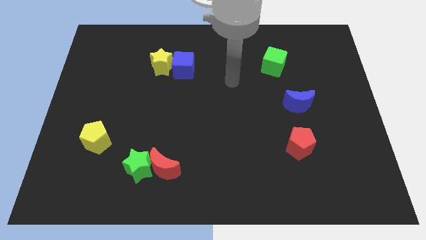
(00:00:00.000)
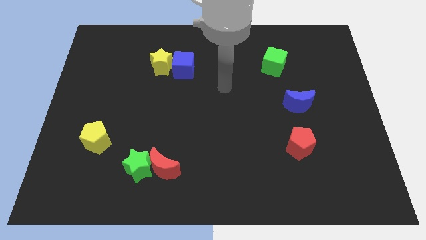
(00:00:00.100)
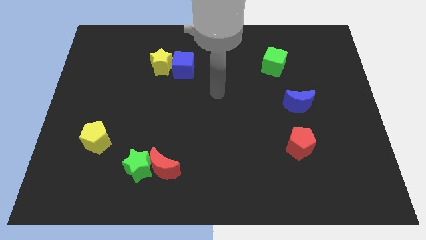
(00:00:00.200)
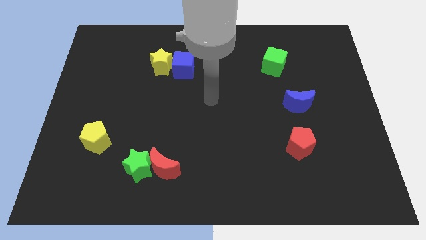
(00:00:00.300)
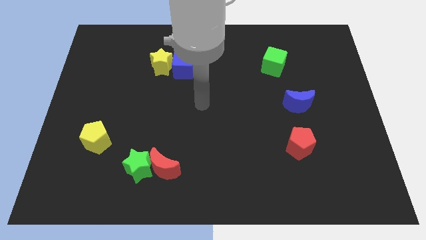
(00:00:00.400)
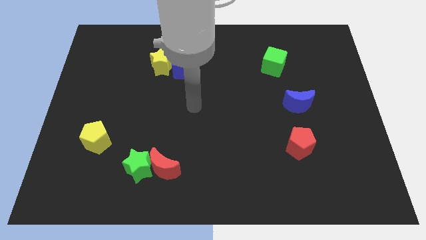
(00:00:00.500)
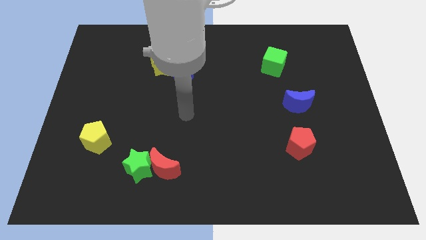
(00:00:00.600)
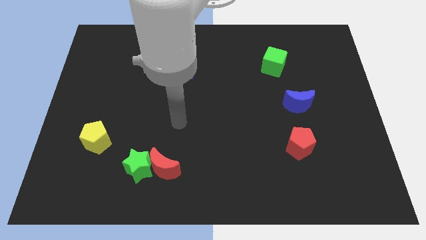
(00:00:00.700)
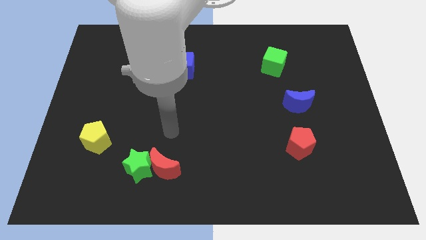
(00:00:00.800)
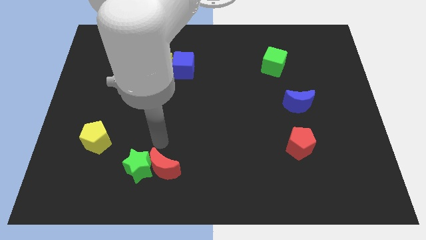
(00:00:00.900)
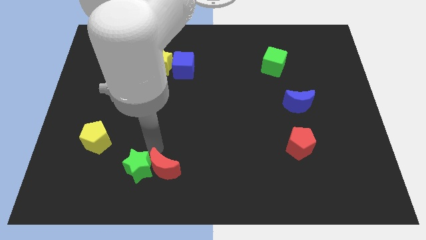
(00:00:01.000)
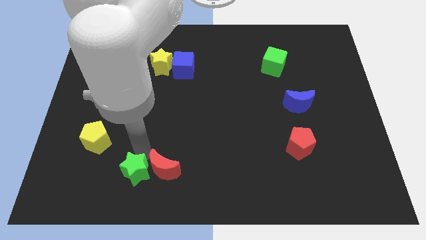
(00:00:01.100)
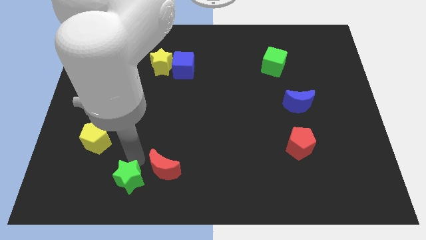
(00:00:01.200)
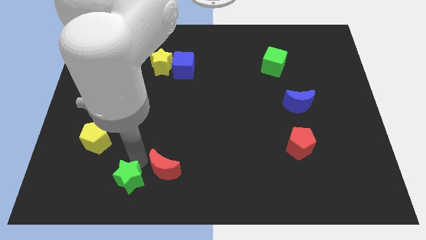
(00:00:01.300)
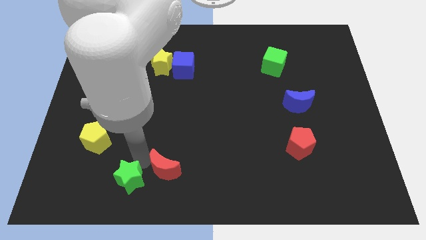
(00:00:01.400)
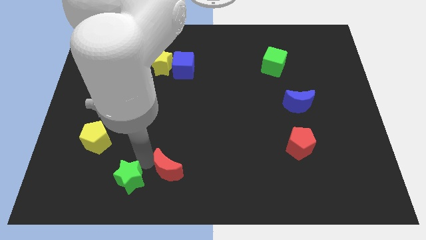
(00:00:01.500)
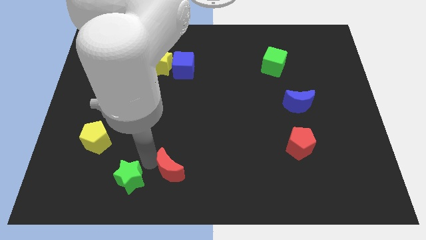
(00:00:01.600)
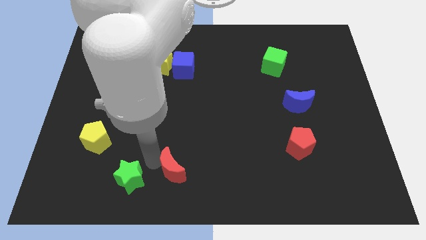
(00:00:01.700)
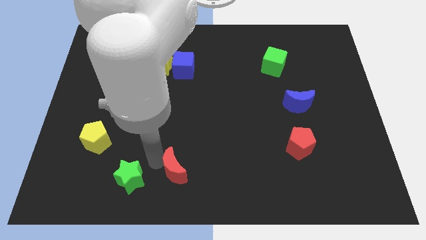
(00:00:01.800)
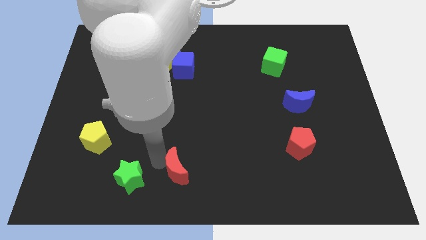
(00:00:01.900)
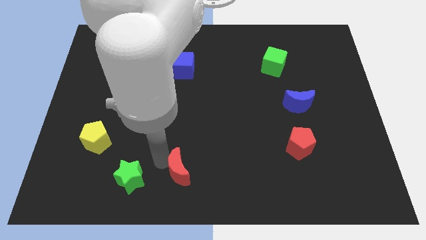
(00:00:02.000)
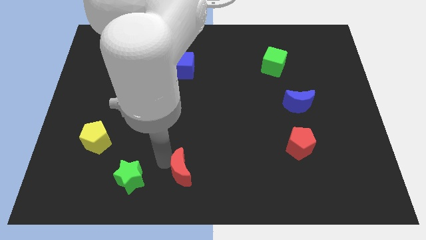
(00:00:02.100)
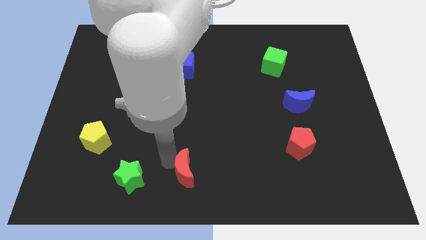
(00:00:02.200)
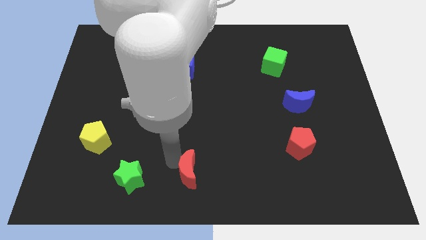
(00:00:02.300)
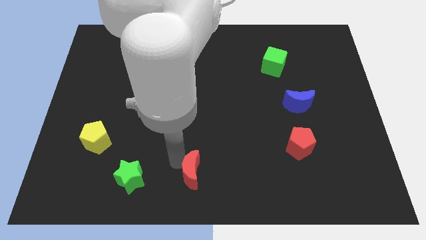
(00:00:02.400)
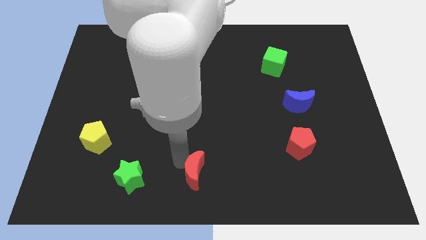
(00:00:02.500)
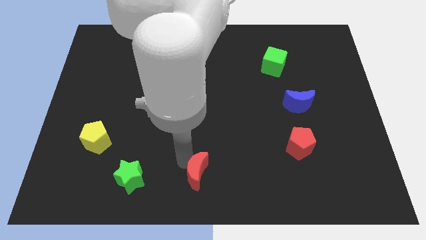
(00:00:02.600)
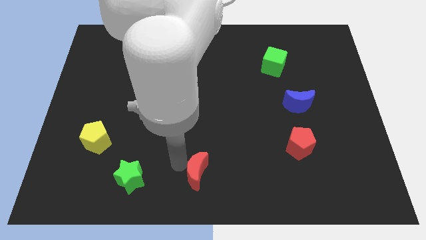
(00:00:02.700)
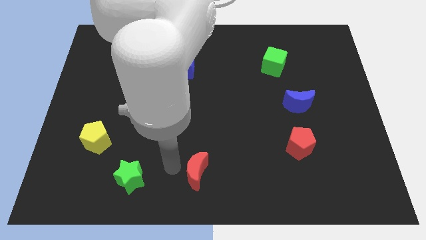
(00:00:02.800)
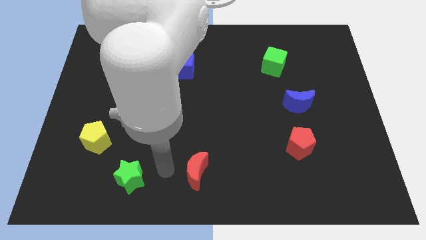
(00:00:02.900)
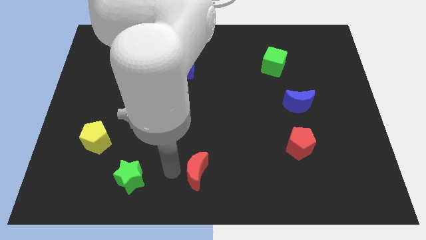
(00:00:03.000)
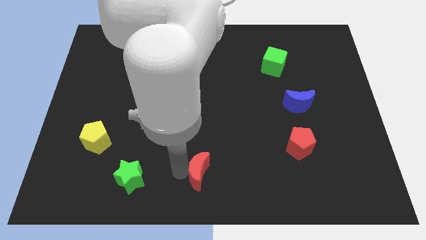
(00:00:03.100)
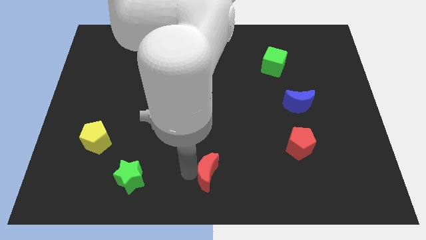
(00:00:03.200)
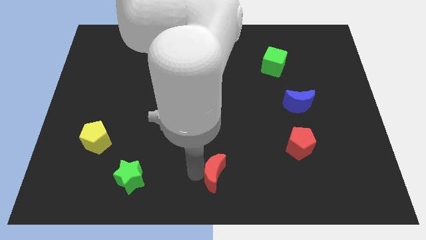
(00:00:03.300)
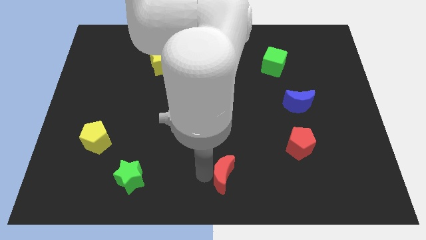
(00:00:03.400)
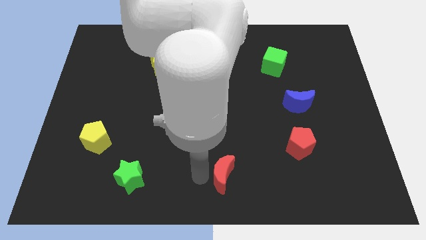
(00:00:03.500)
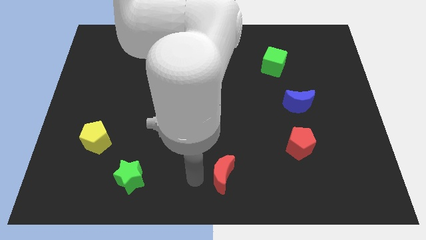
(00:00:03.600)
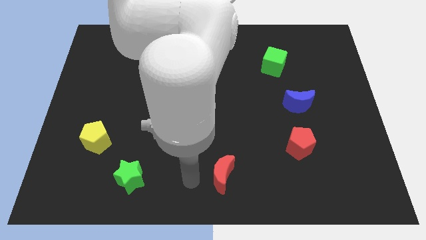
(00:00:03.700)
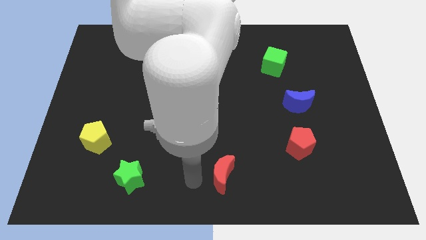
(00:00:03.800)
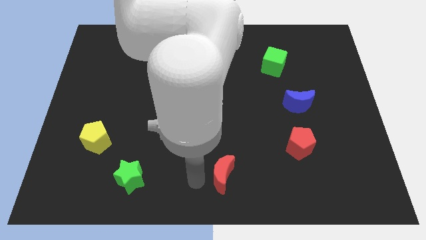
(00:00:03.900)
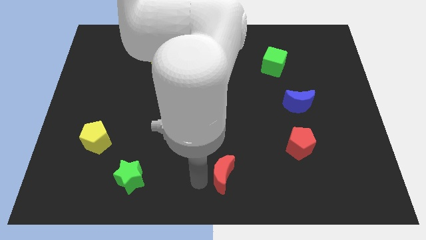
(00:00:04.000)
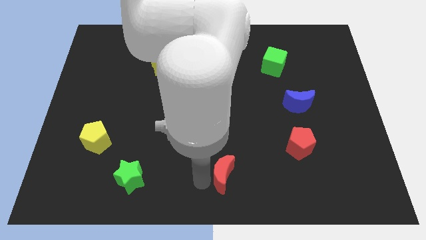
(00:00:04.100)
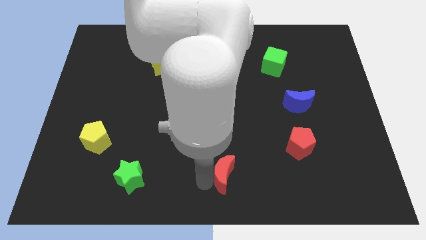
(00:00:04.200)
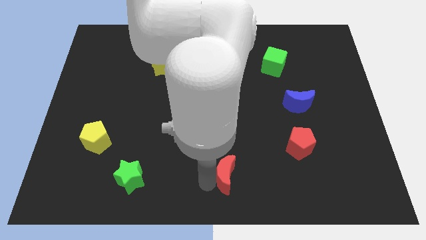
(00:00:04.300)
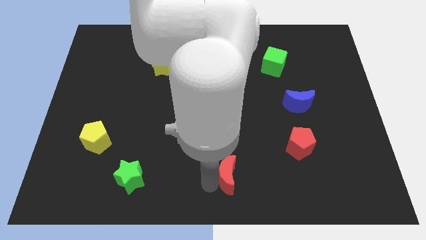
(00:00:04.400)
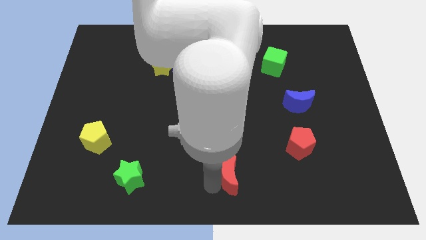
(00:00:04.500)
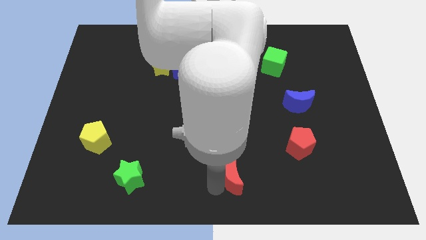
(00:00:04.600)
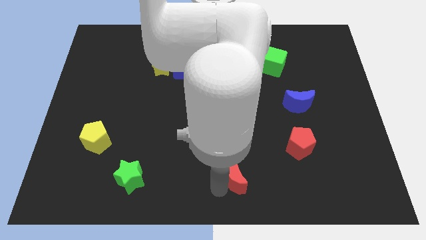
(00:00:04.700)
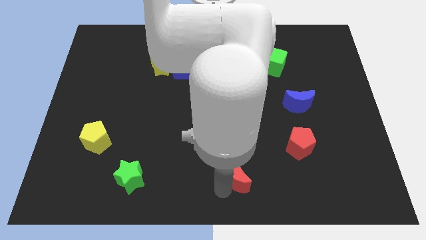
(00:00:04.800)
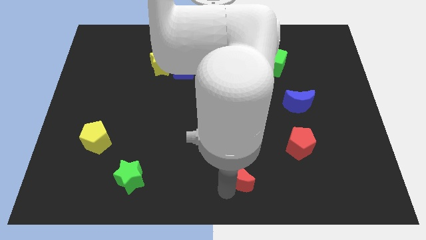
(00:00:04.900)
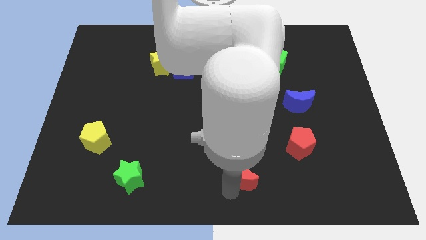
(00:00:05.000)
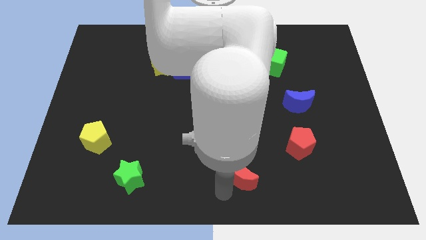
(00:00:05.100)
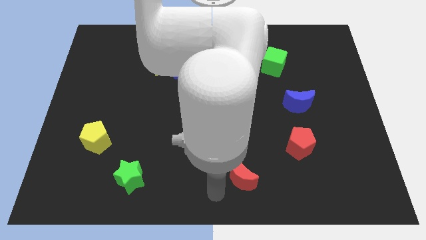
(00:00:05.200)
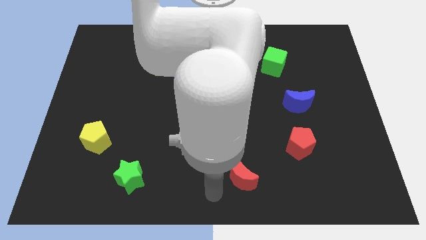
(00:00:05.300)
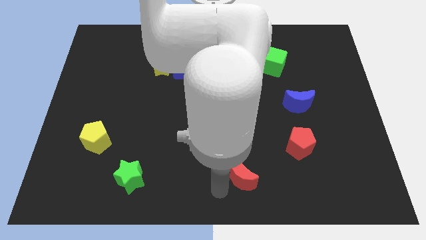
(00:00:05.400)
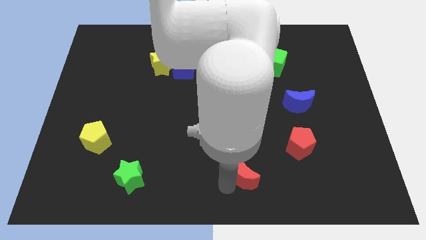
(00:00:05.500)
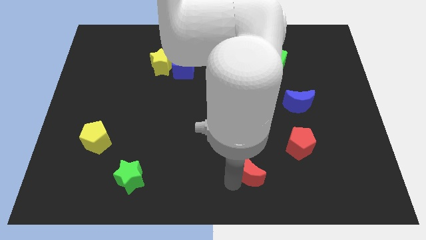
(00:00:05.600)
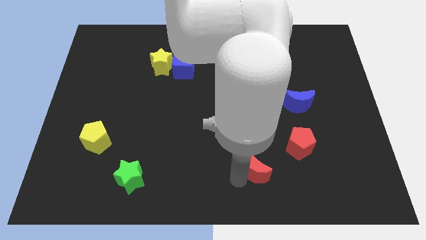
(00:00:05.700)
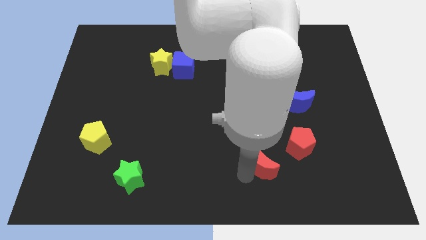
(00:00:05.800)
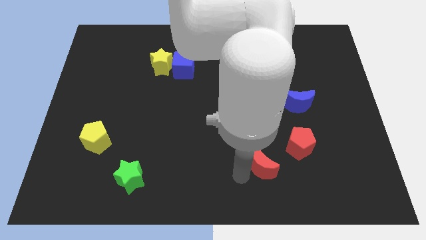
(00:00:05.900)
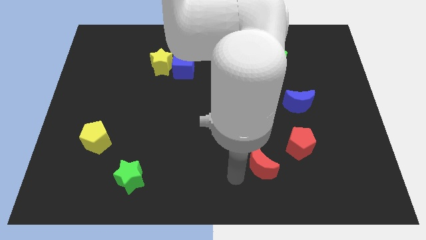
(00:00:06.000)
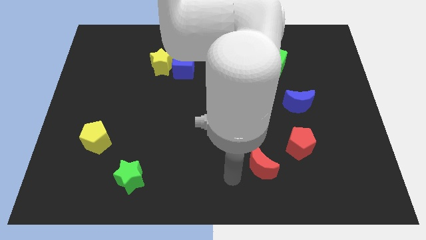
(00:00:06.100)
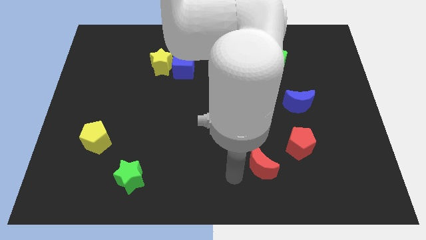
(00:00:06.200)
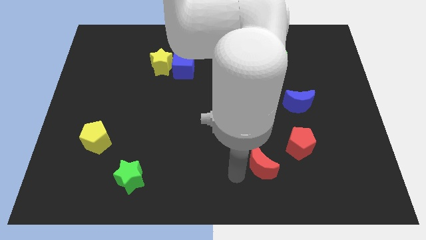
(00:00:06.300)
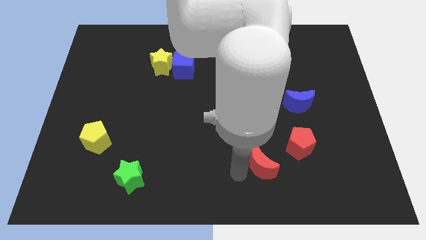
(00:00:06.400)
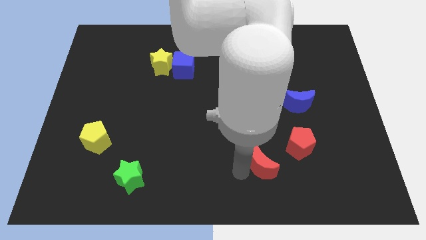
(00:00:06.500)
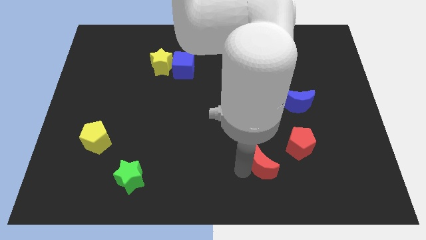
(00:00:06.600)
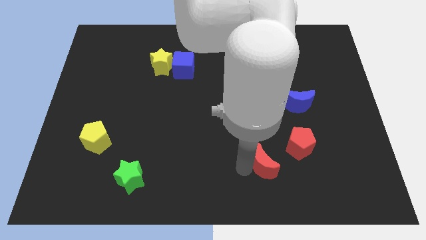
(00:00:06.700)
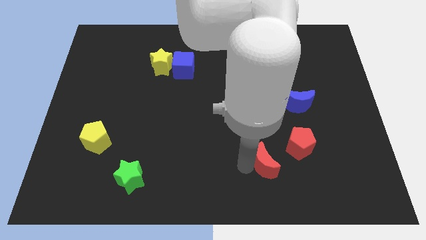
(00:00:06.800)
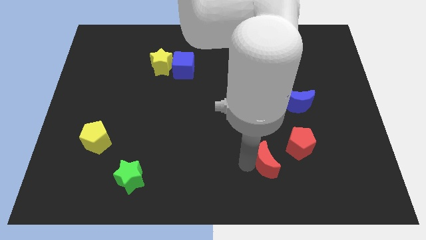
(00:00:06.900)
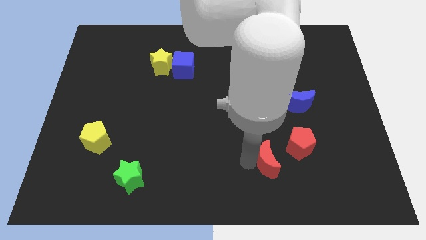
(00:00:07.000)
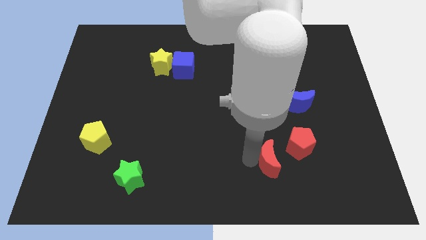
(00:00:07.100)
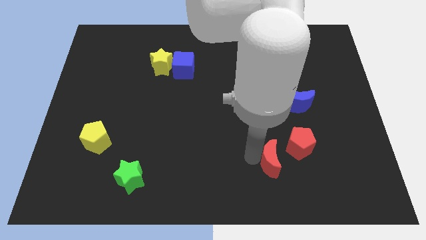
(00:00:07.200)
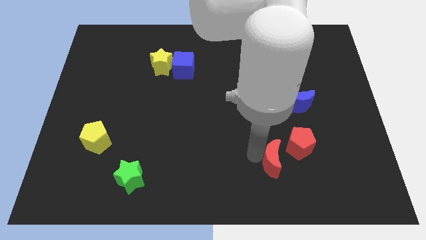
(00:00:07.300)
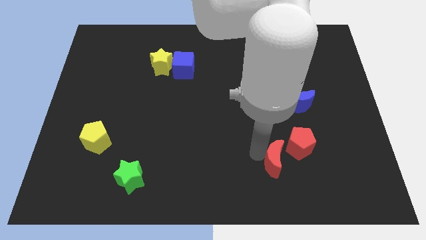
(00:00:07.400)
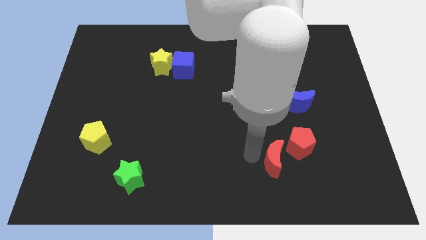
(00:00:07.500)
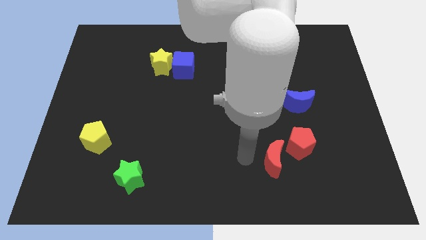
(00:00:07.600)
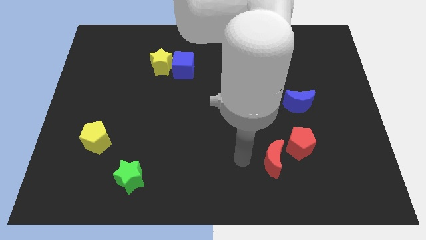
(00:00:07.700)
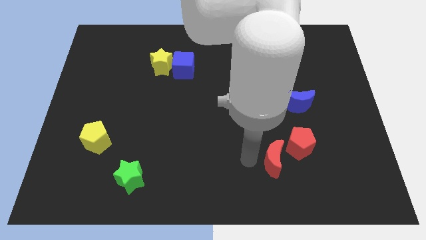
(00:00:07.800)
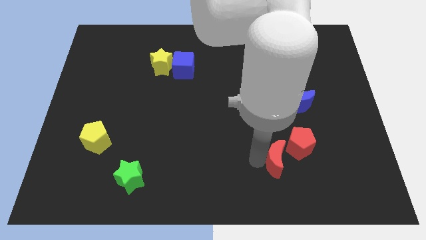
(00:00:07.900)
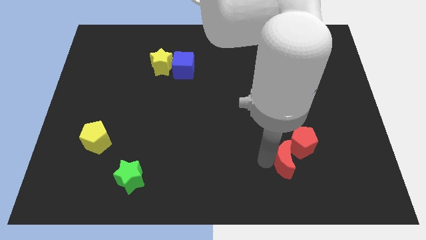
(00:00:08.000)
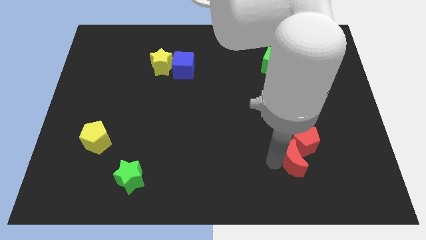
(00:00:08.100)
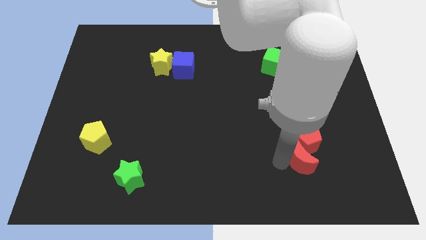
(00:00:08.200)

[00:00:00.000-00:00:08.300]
push the red moon to the bottom of the blue moon
